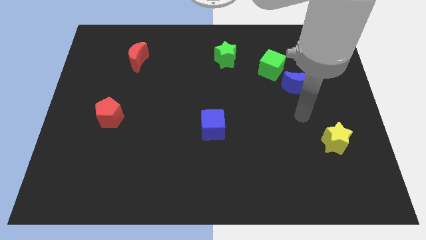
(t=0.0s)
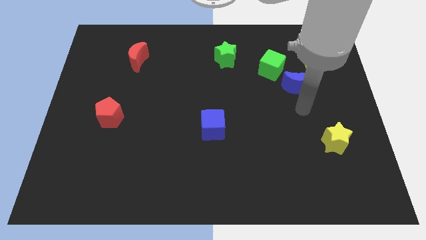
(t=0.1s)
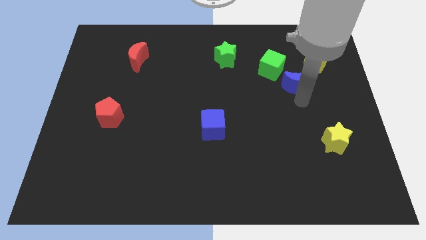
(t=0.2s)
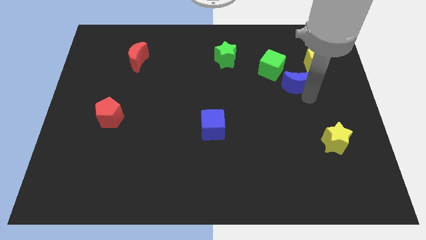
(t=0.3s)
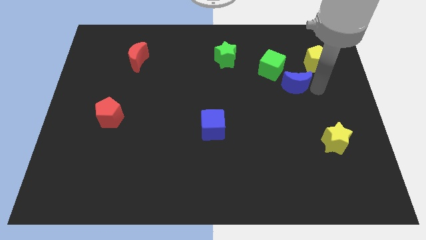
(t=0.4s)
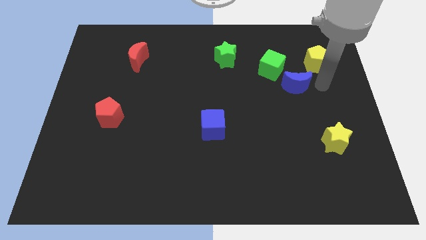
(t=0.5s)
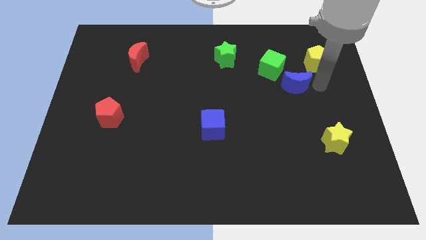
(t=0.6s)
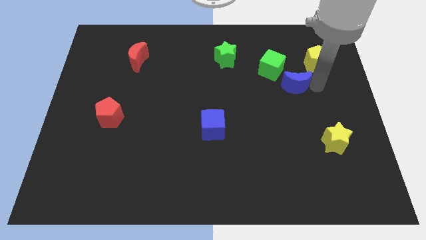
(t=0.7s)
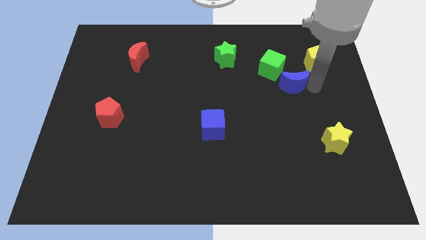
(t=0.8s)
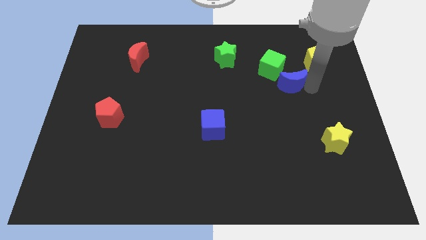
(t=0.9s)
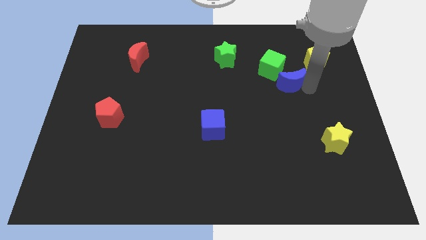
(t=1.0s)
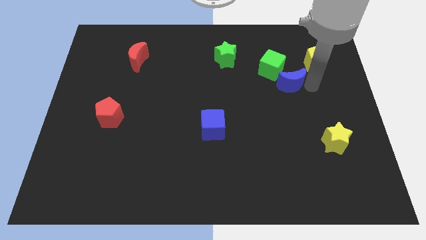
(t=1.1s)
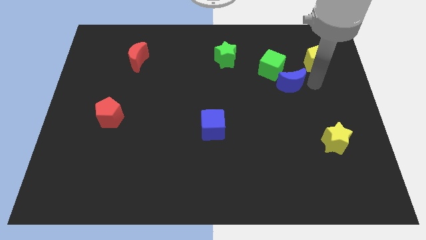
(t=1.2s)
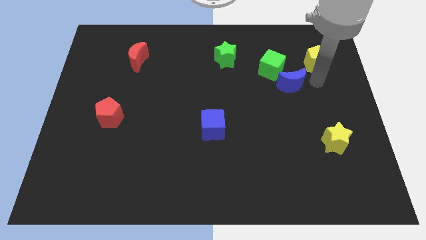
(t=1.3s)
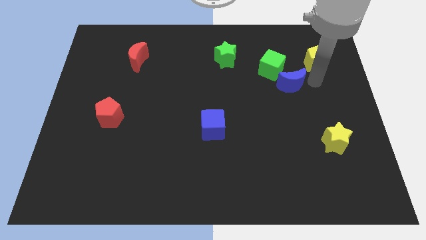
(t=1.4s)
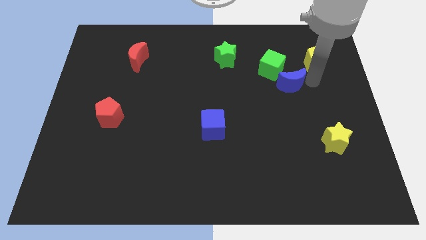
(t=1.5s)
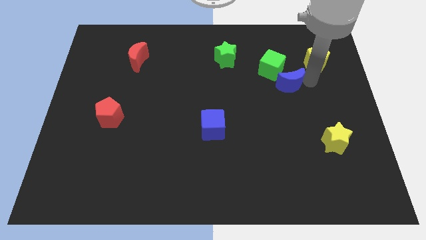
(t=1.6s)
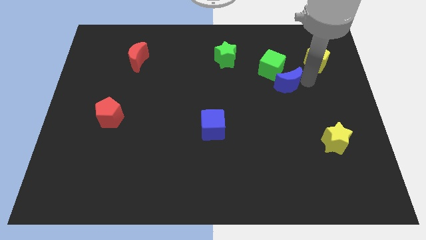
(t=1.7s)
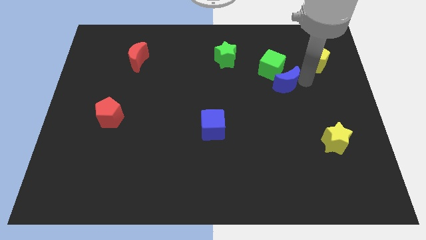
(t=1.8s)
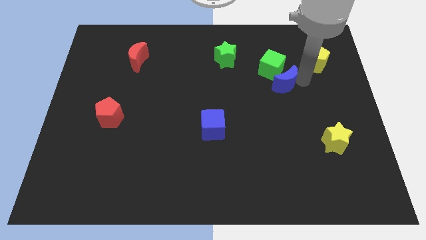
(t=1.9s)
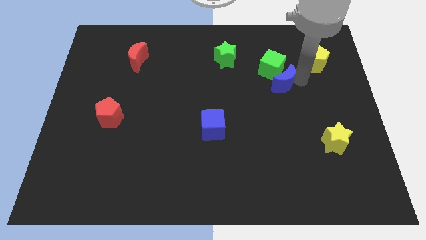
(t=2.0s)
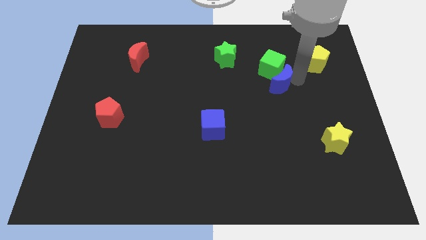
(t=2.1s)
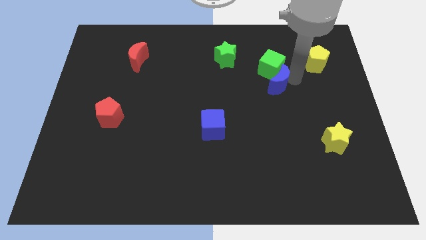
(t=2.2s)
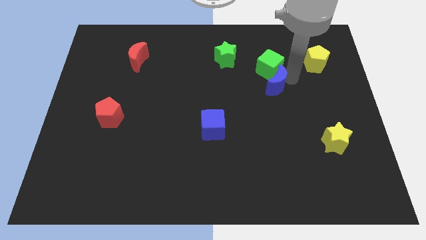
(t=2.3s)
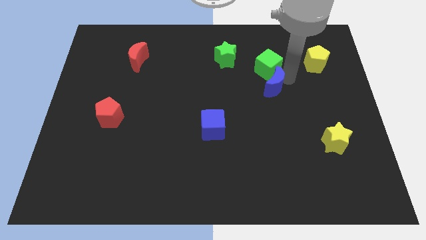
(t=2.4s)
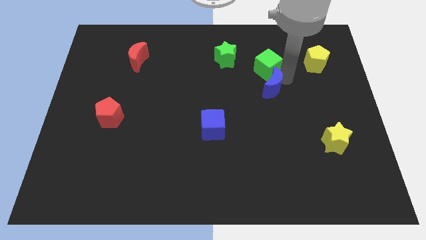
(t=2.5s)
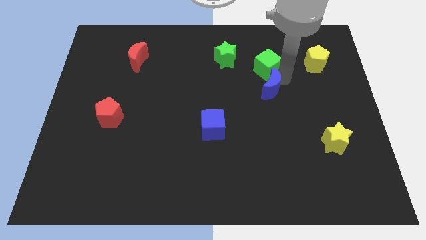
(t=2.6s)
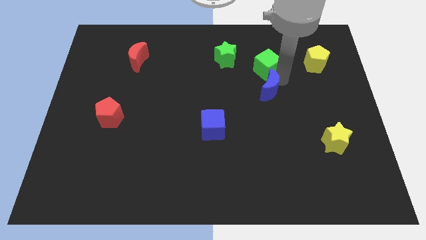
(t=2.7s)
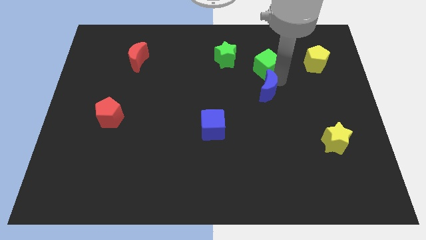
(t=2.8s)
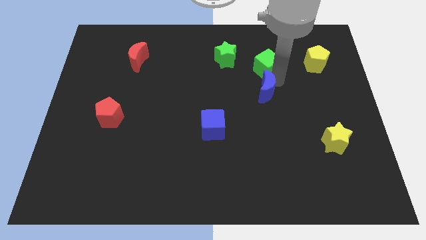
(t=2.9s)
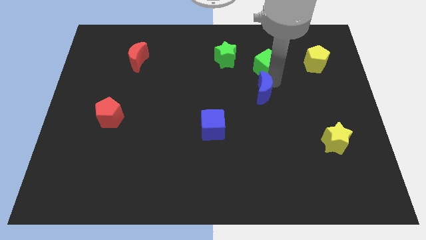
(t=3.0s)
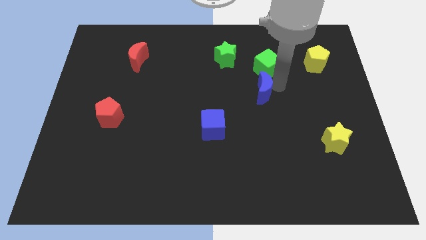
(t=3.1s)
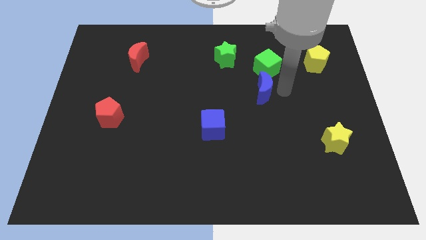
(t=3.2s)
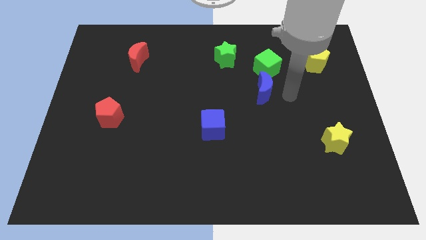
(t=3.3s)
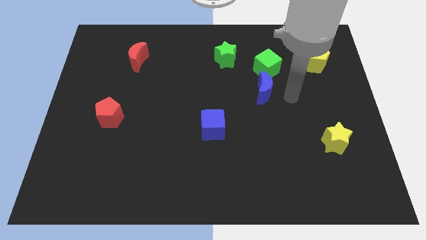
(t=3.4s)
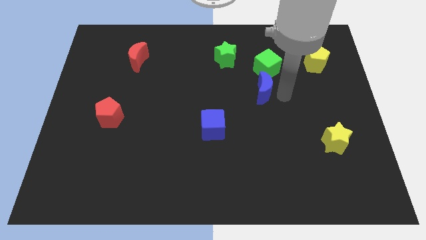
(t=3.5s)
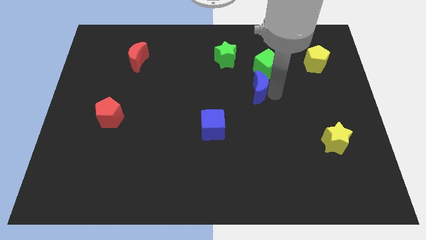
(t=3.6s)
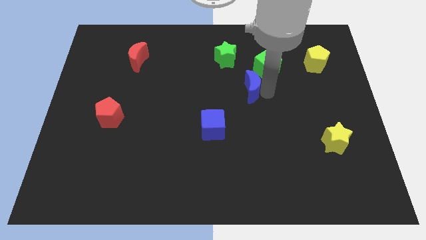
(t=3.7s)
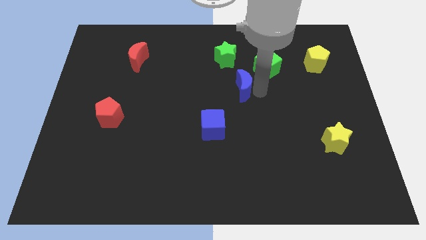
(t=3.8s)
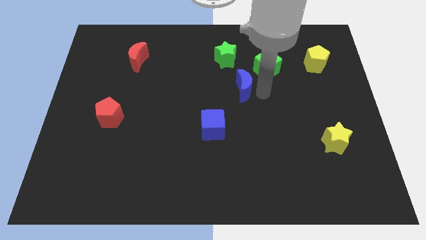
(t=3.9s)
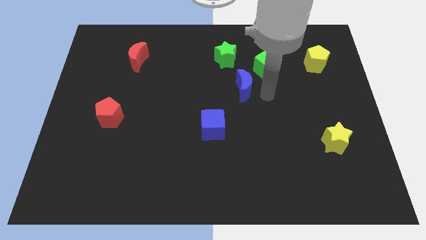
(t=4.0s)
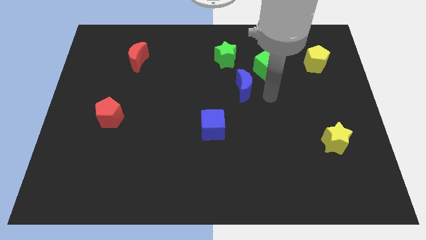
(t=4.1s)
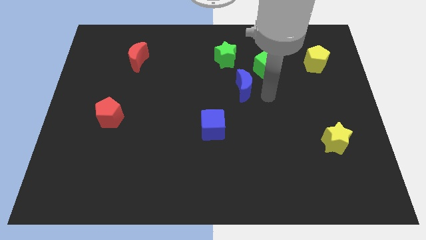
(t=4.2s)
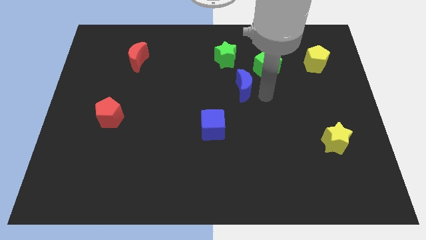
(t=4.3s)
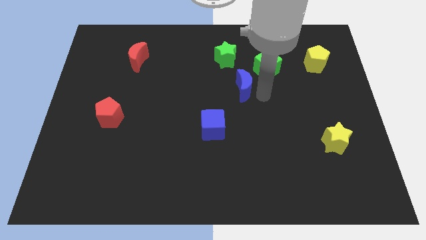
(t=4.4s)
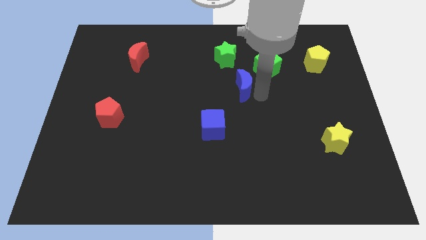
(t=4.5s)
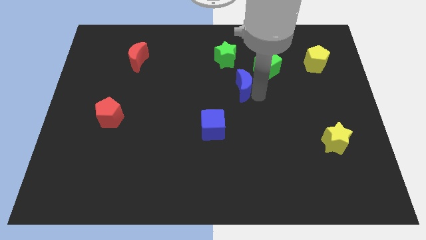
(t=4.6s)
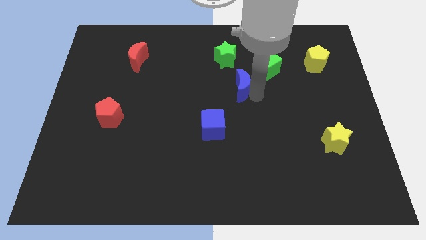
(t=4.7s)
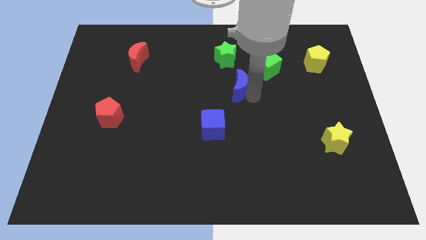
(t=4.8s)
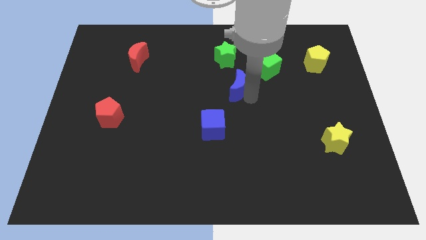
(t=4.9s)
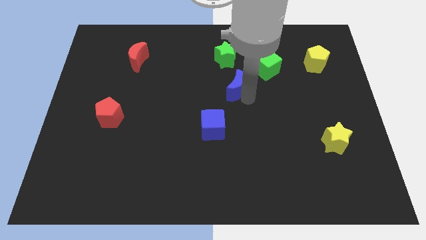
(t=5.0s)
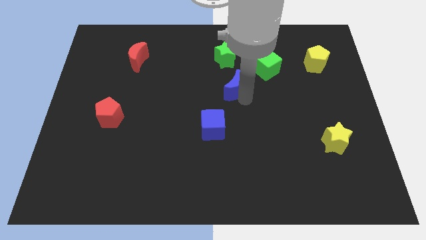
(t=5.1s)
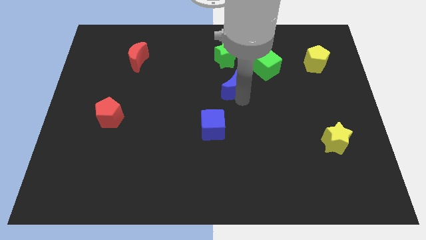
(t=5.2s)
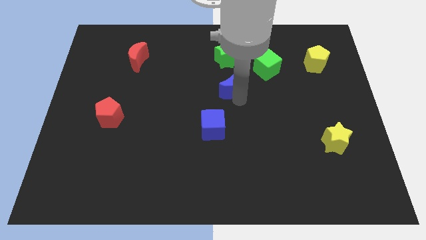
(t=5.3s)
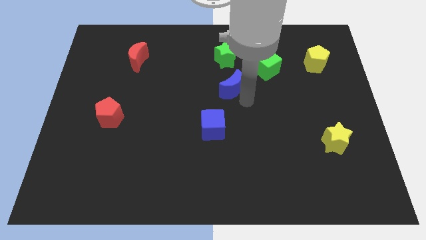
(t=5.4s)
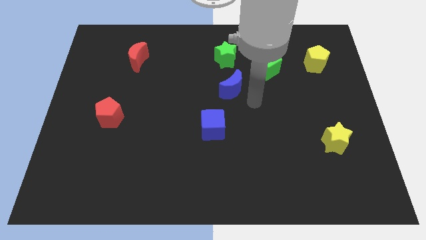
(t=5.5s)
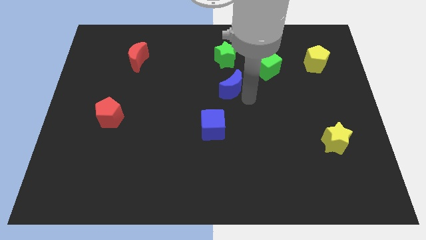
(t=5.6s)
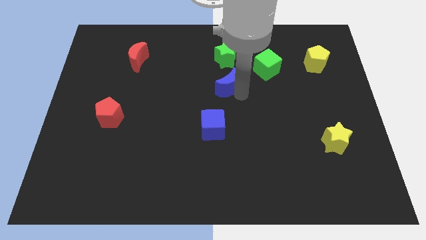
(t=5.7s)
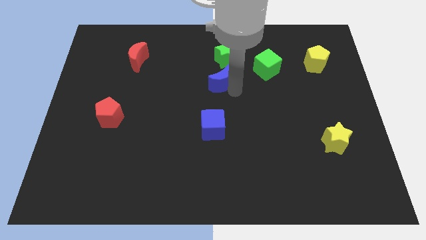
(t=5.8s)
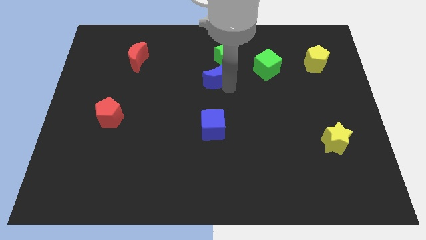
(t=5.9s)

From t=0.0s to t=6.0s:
slide the blue moon diagonally down and to the left of the green star

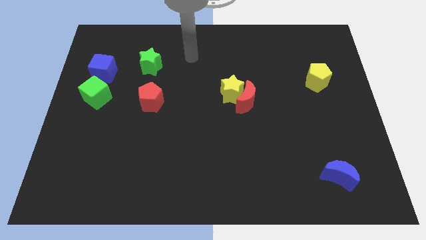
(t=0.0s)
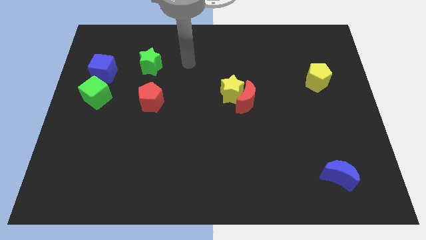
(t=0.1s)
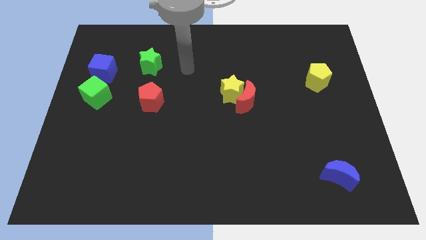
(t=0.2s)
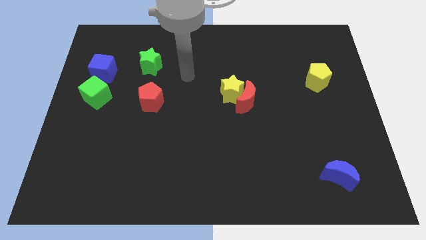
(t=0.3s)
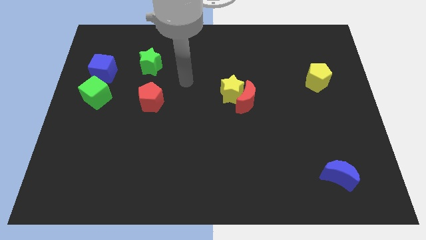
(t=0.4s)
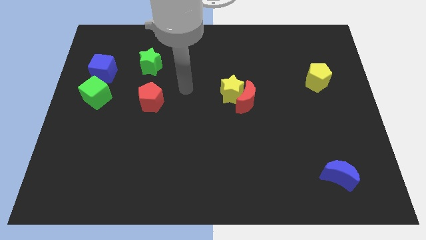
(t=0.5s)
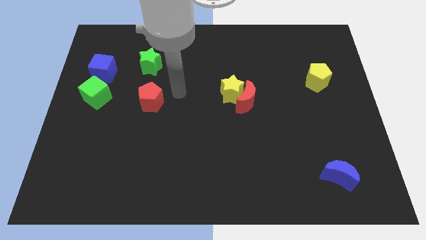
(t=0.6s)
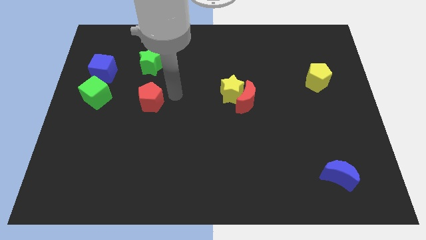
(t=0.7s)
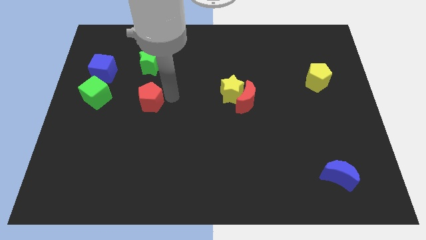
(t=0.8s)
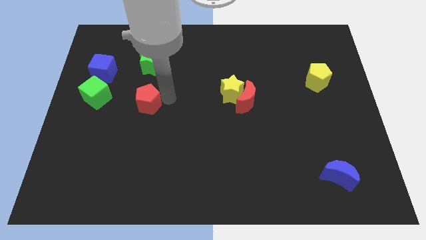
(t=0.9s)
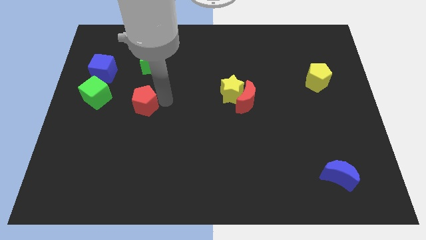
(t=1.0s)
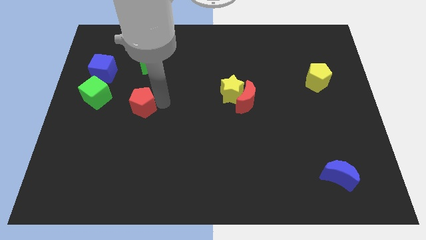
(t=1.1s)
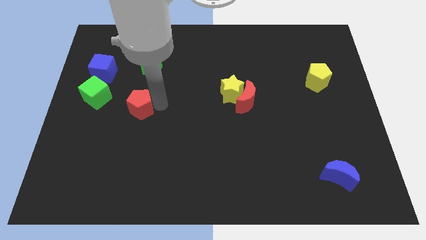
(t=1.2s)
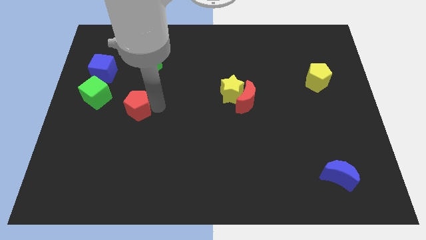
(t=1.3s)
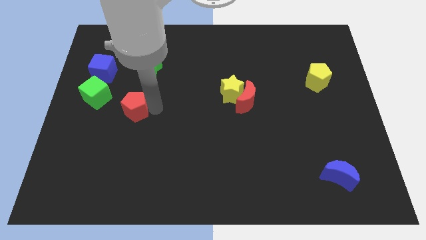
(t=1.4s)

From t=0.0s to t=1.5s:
put the red pentagon diagonally down and to the right of the green cube
